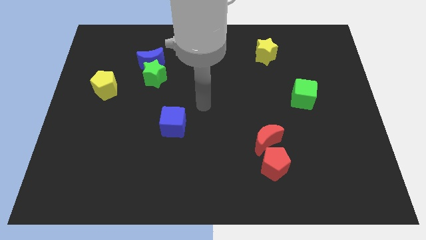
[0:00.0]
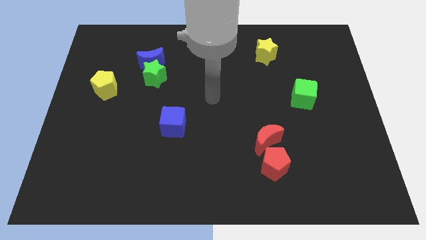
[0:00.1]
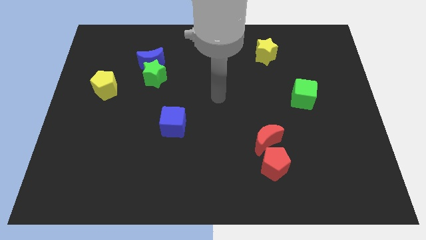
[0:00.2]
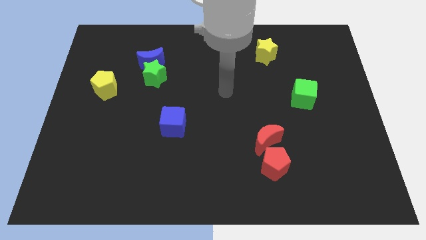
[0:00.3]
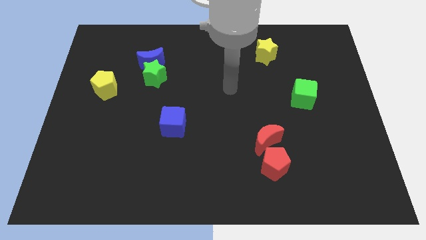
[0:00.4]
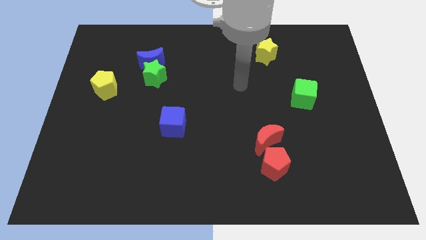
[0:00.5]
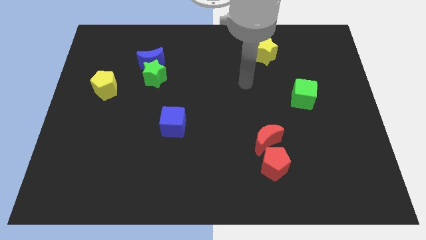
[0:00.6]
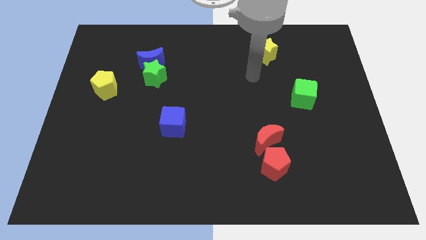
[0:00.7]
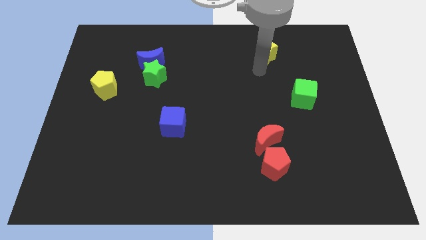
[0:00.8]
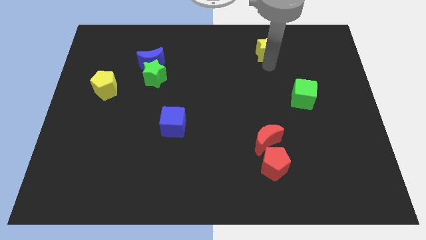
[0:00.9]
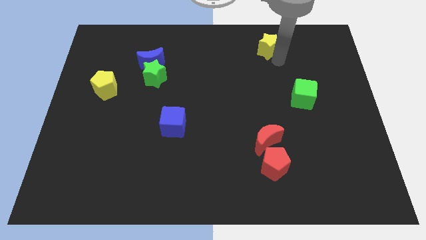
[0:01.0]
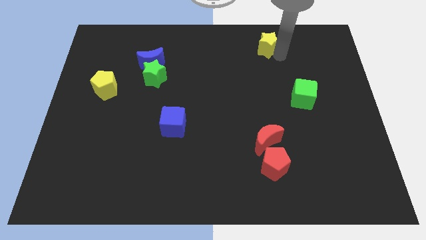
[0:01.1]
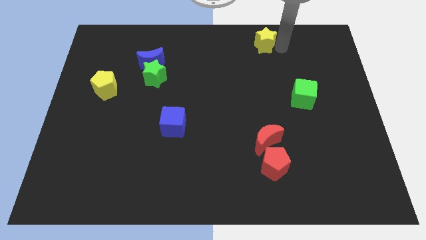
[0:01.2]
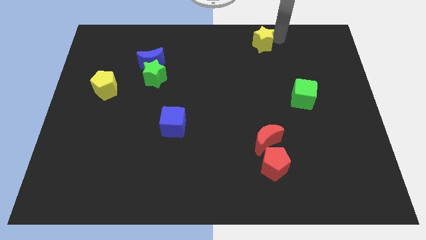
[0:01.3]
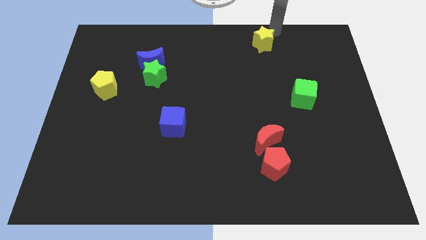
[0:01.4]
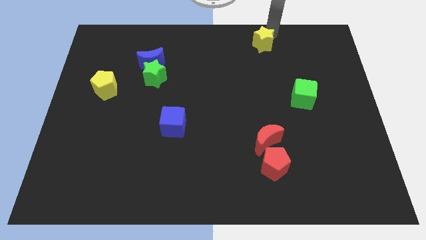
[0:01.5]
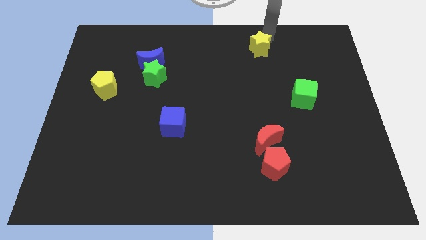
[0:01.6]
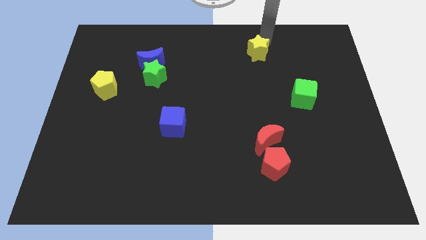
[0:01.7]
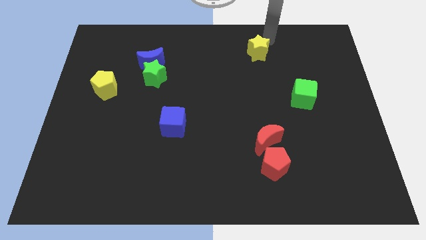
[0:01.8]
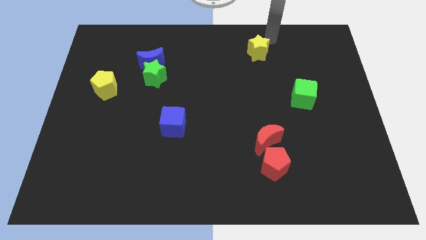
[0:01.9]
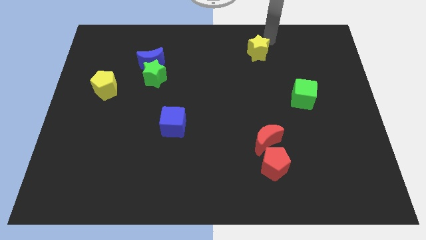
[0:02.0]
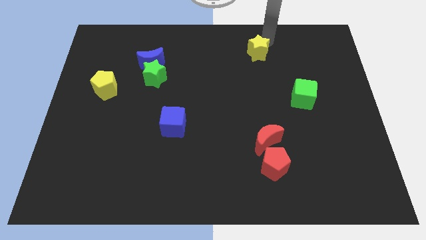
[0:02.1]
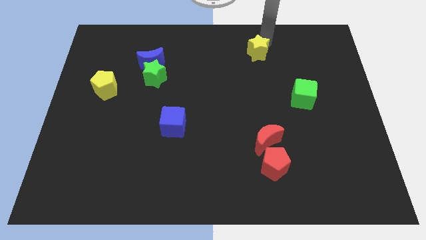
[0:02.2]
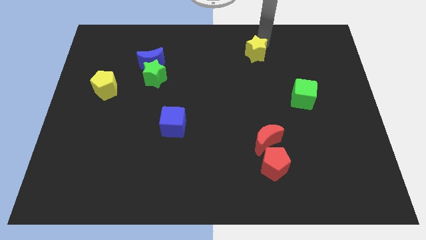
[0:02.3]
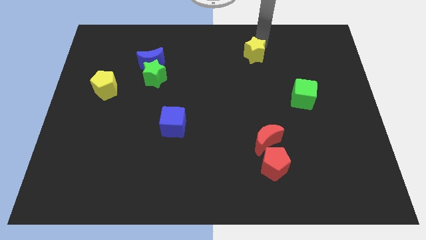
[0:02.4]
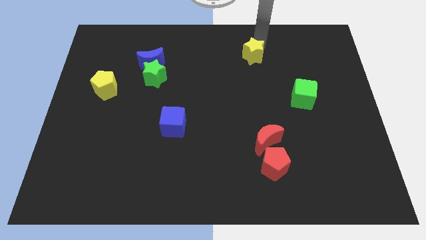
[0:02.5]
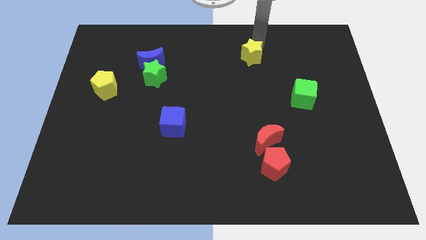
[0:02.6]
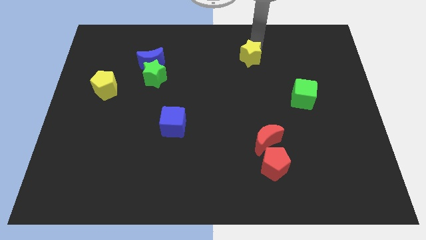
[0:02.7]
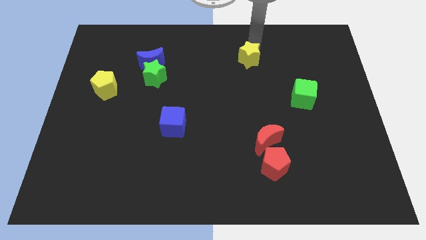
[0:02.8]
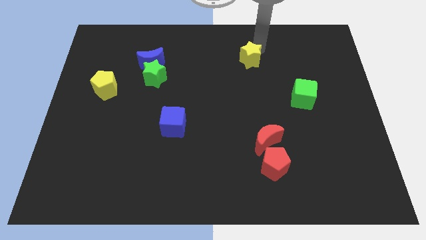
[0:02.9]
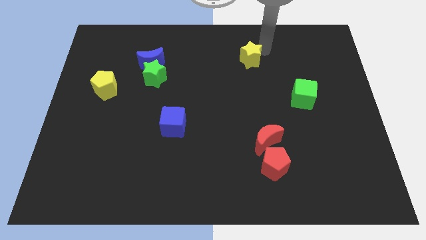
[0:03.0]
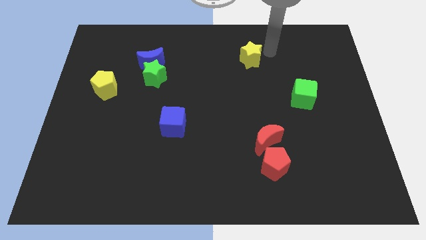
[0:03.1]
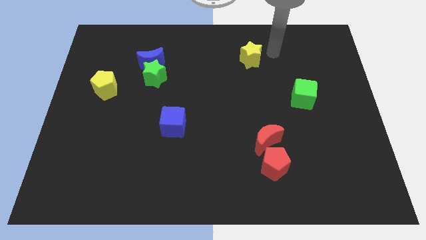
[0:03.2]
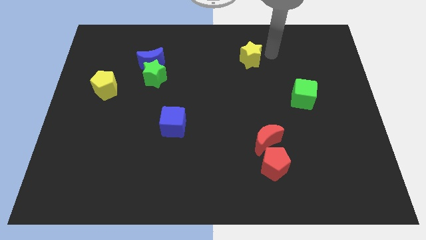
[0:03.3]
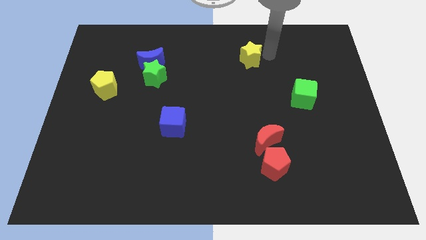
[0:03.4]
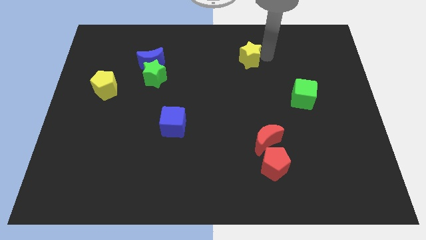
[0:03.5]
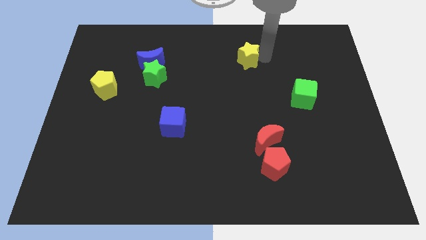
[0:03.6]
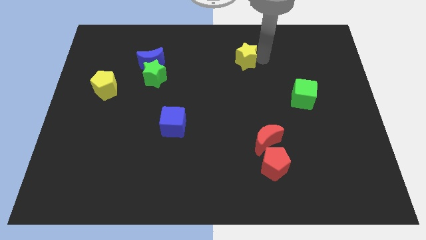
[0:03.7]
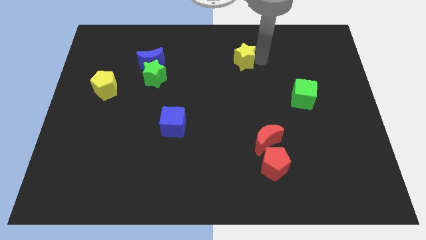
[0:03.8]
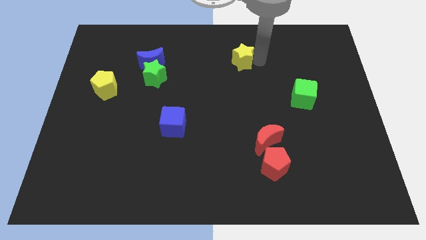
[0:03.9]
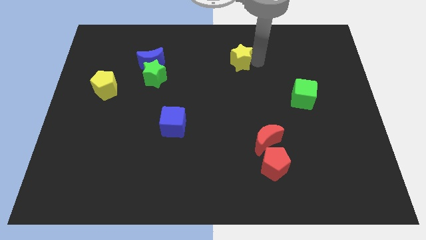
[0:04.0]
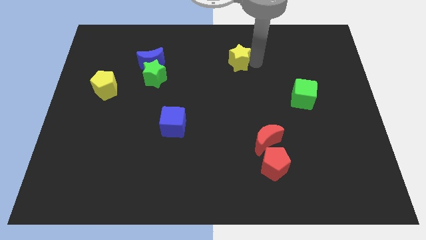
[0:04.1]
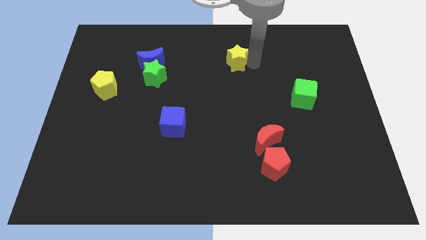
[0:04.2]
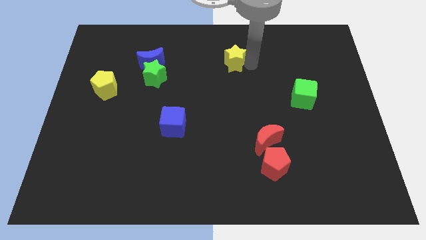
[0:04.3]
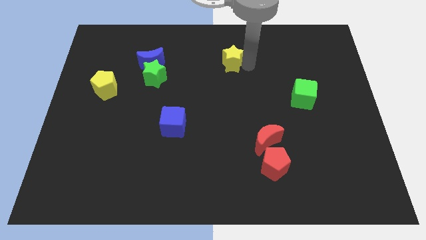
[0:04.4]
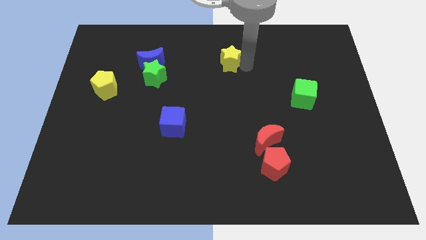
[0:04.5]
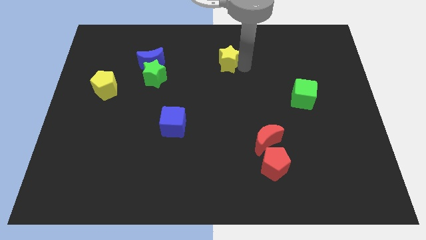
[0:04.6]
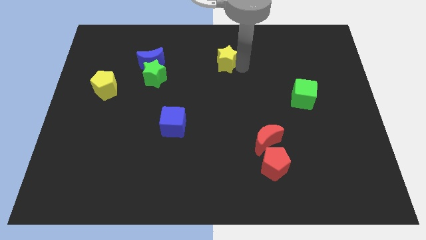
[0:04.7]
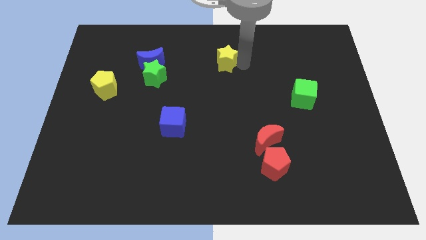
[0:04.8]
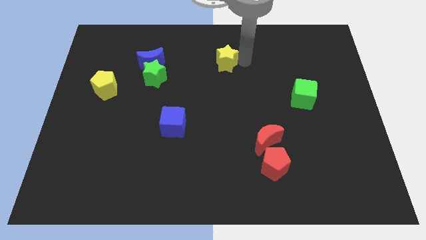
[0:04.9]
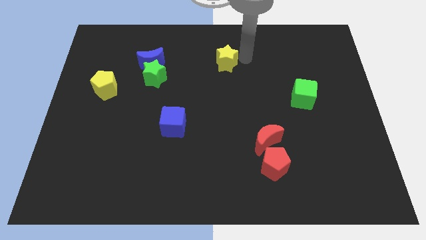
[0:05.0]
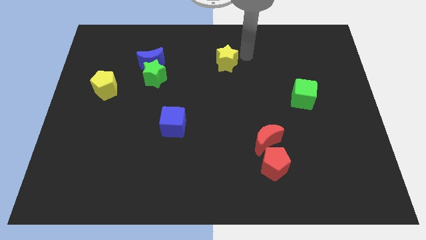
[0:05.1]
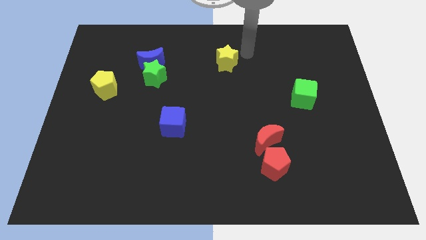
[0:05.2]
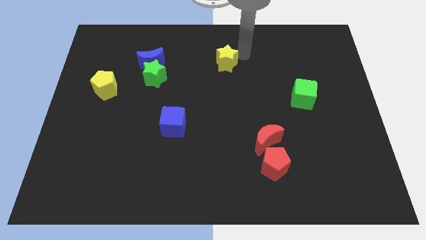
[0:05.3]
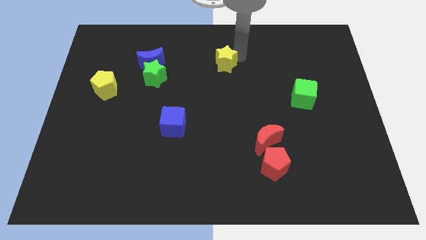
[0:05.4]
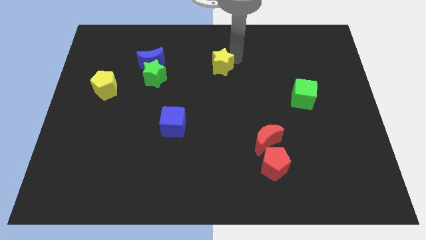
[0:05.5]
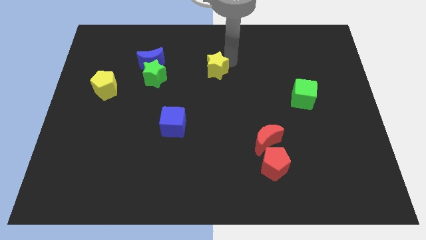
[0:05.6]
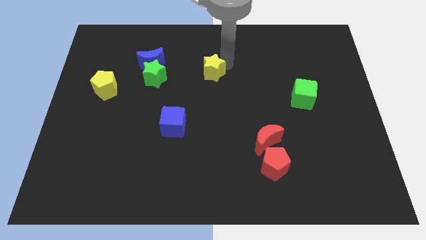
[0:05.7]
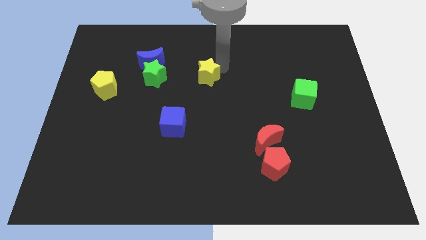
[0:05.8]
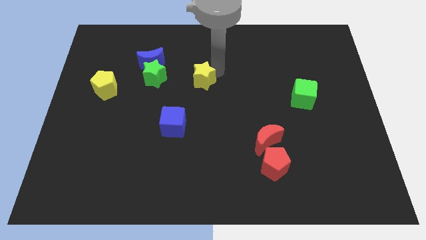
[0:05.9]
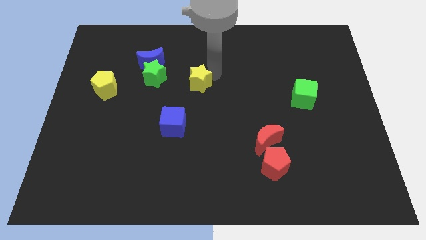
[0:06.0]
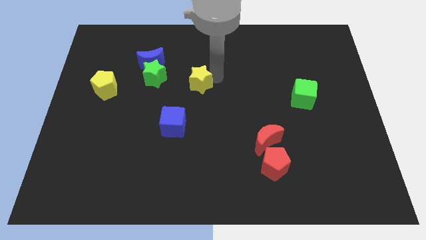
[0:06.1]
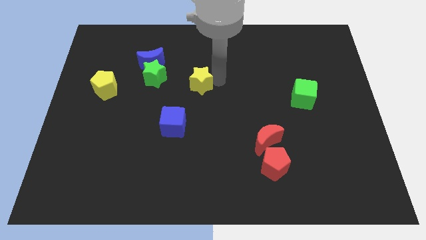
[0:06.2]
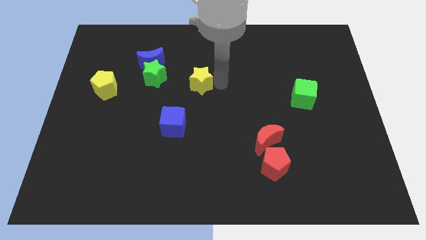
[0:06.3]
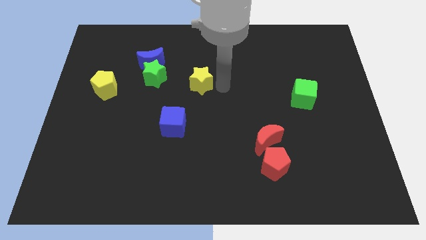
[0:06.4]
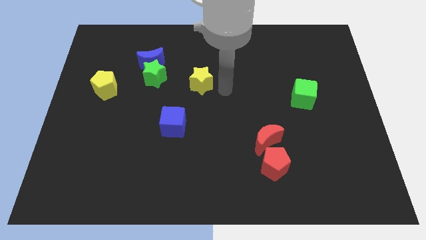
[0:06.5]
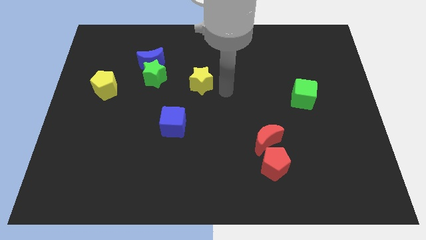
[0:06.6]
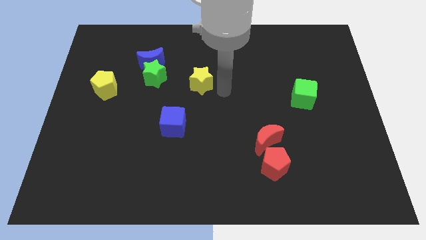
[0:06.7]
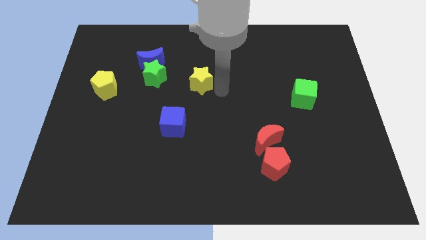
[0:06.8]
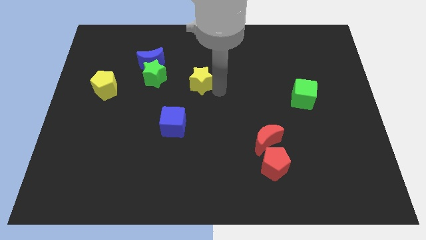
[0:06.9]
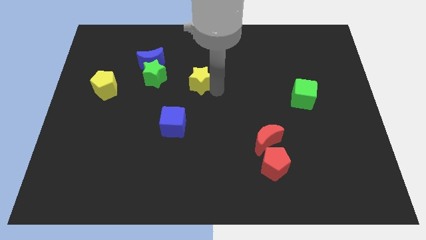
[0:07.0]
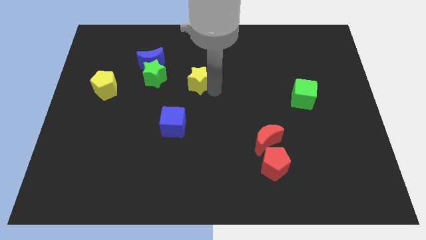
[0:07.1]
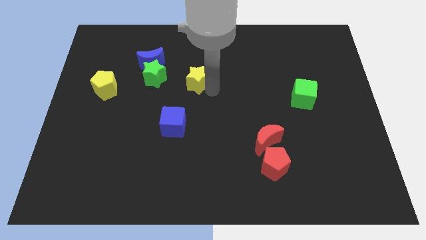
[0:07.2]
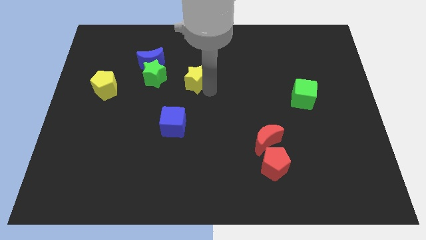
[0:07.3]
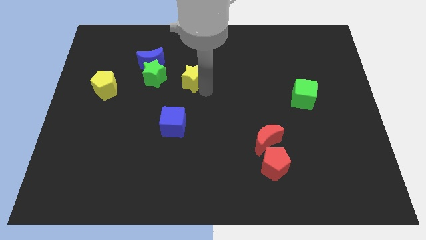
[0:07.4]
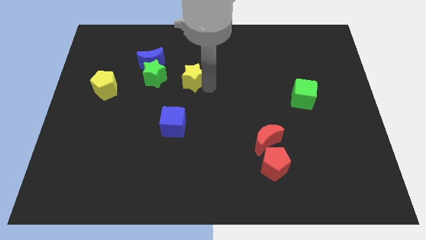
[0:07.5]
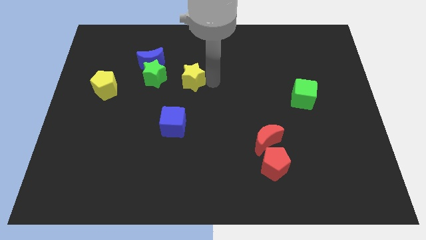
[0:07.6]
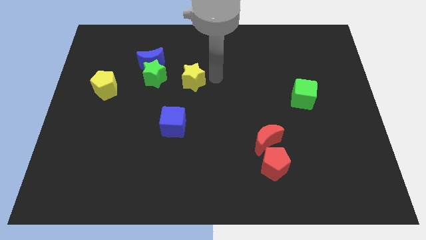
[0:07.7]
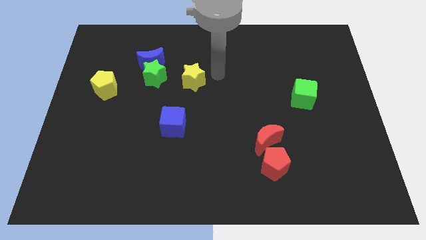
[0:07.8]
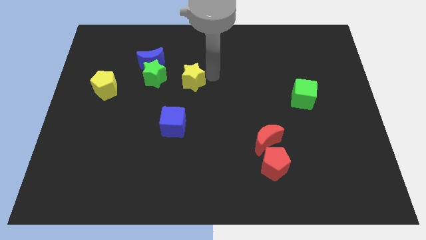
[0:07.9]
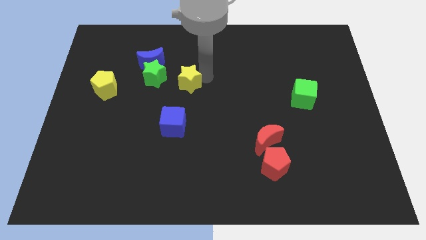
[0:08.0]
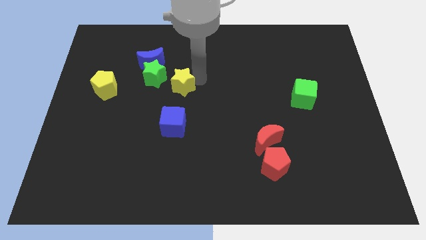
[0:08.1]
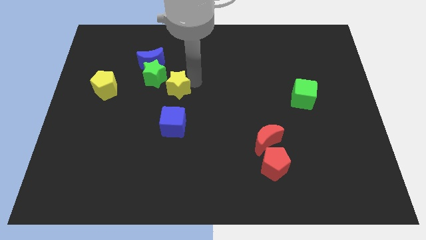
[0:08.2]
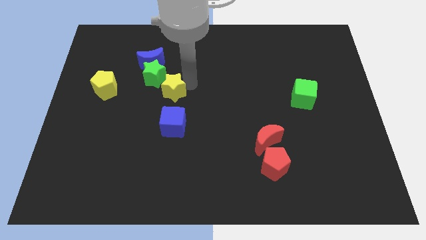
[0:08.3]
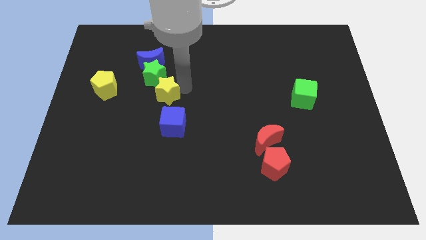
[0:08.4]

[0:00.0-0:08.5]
put the yellow star to the right side of the yellow pentagon
